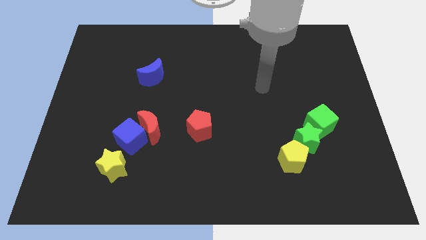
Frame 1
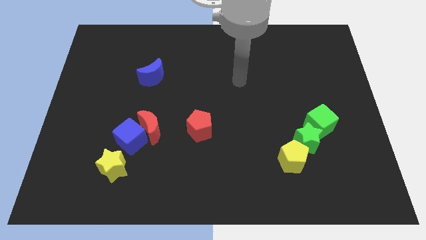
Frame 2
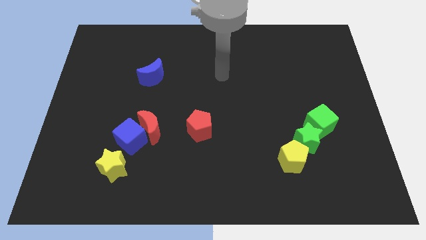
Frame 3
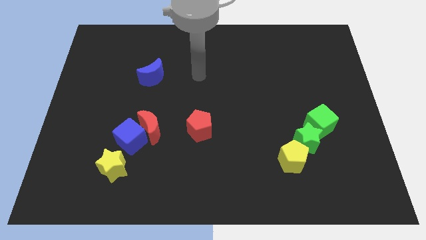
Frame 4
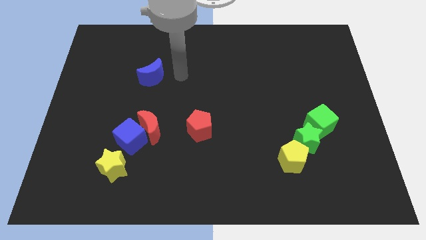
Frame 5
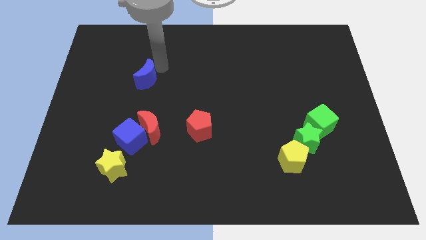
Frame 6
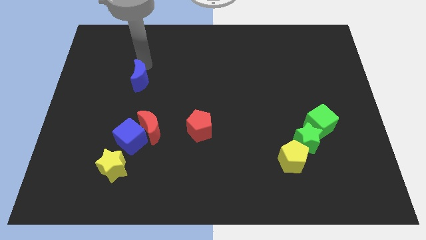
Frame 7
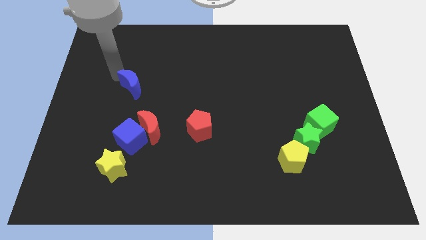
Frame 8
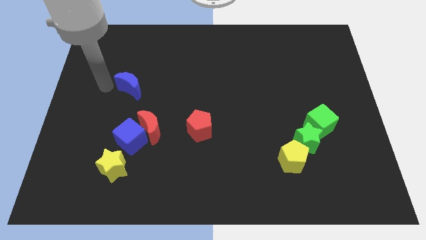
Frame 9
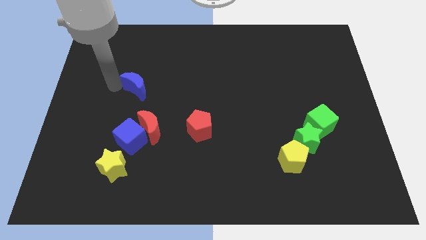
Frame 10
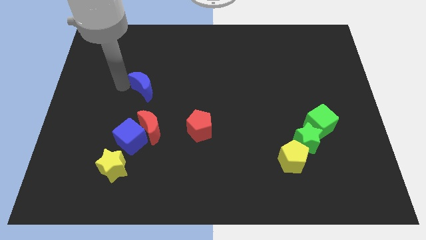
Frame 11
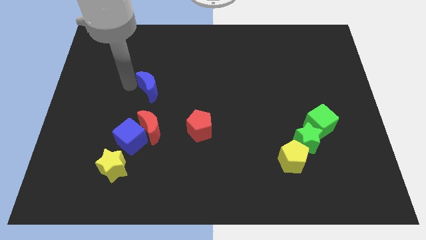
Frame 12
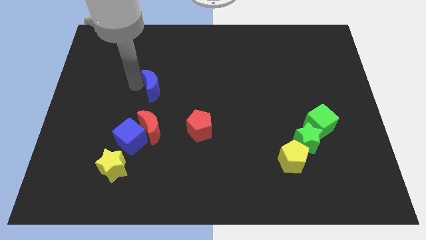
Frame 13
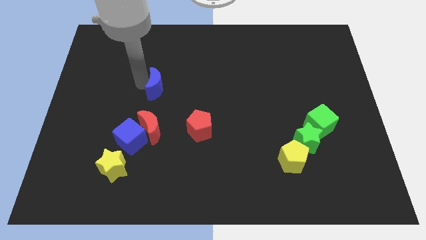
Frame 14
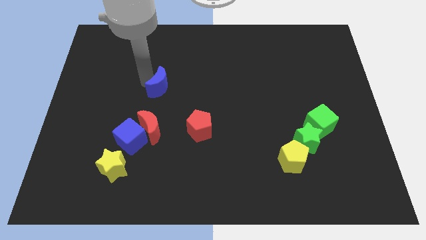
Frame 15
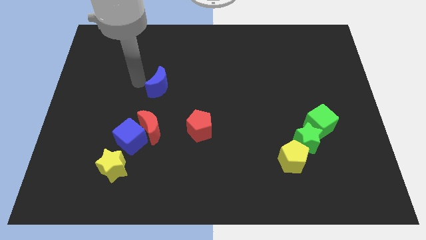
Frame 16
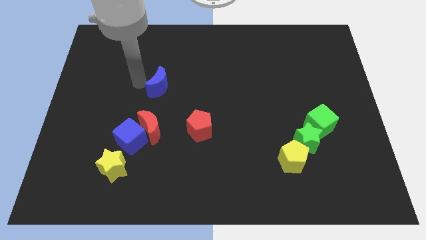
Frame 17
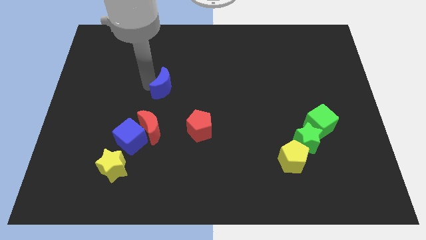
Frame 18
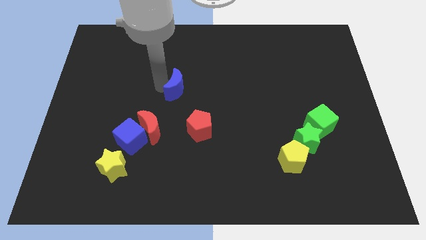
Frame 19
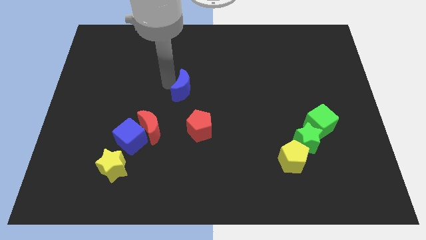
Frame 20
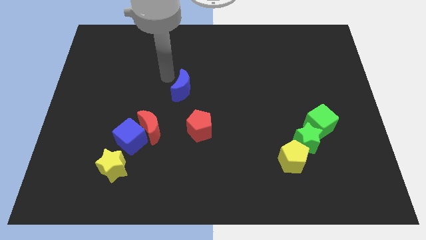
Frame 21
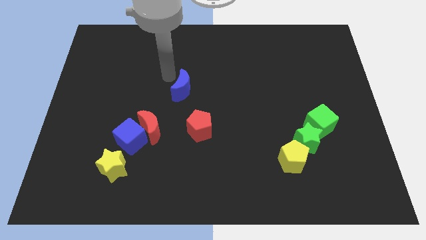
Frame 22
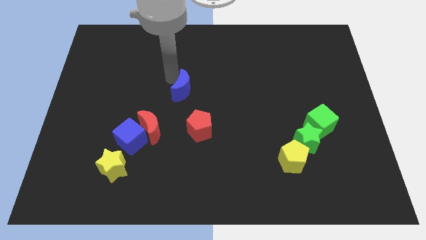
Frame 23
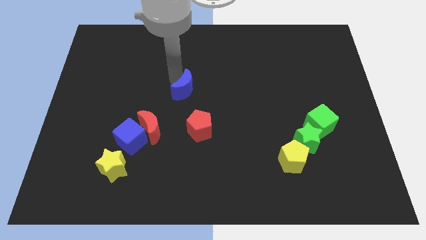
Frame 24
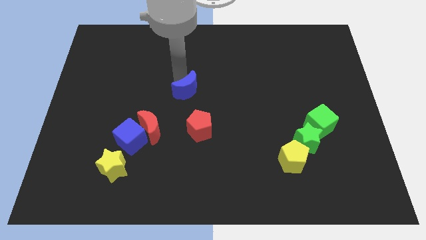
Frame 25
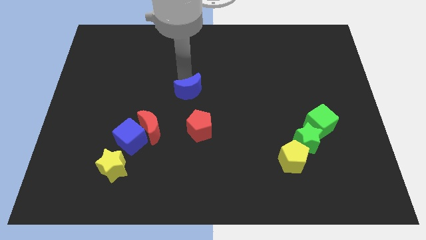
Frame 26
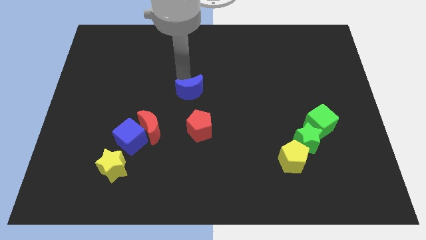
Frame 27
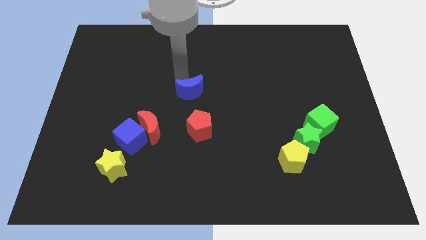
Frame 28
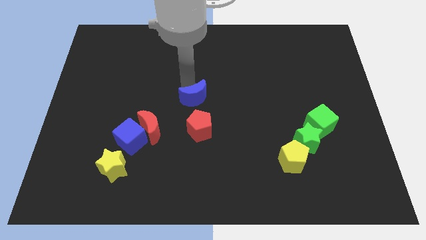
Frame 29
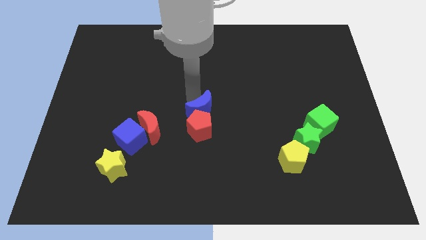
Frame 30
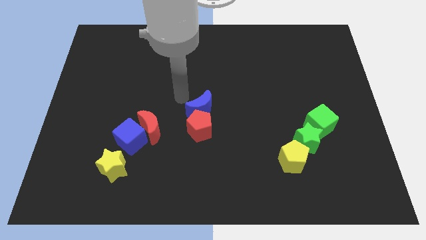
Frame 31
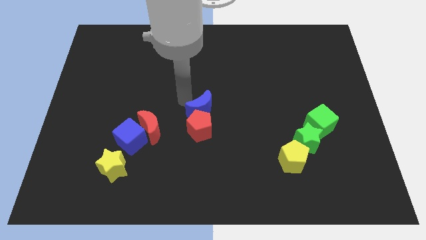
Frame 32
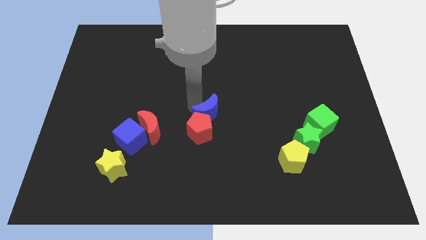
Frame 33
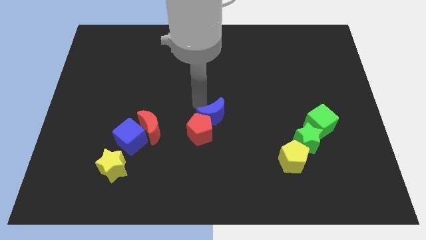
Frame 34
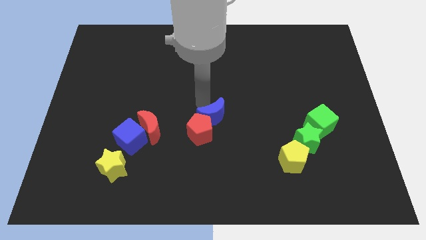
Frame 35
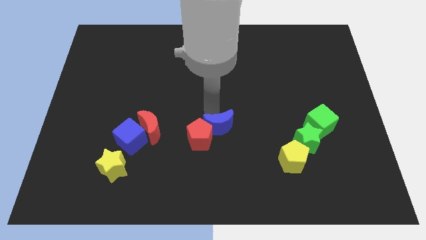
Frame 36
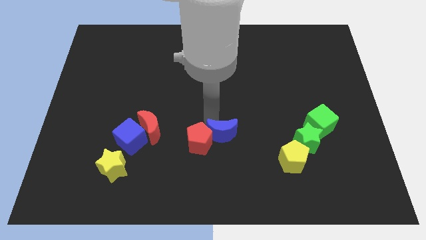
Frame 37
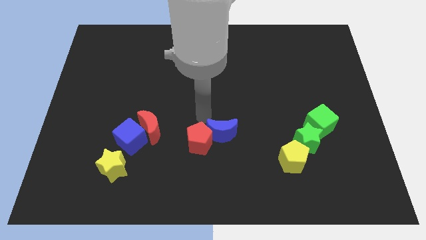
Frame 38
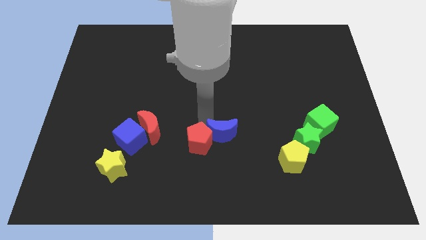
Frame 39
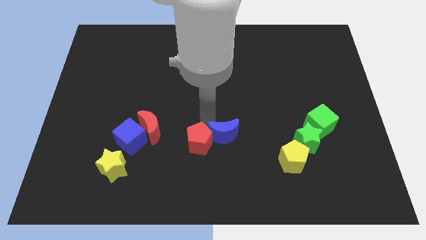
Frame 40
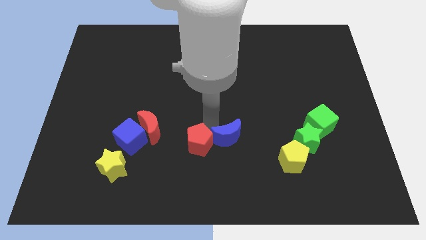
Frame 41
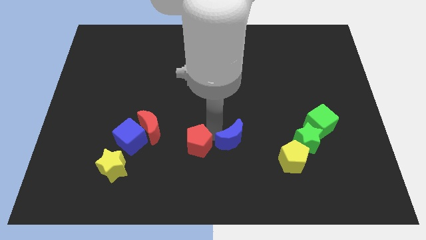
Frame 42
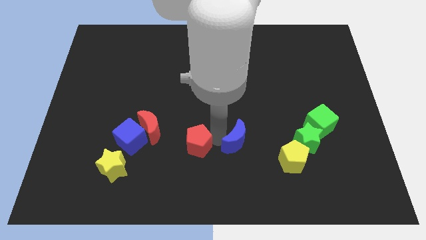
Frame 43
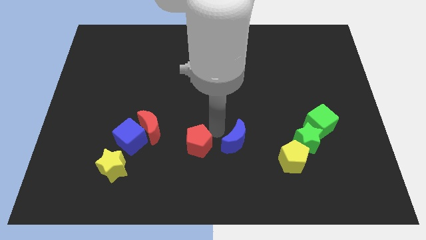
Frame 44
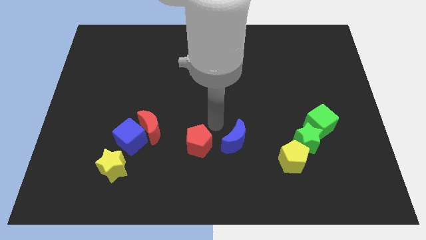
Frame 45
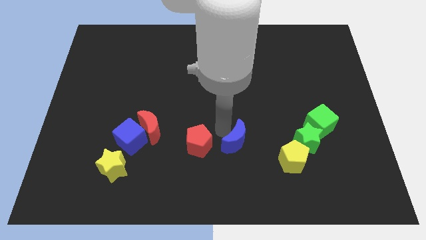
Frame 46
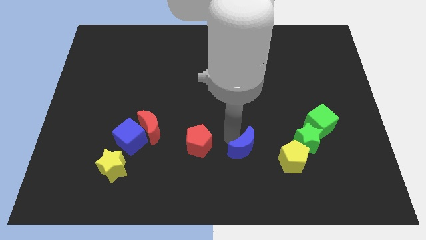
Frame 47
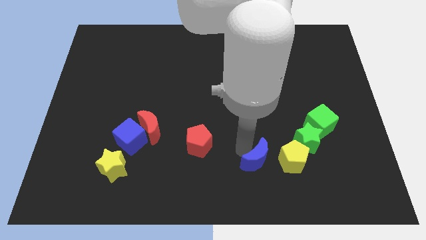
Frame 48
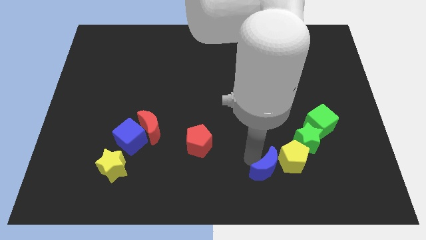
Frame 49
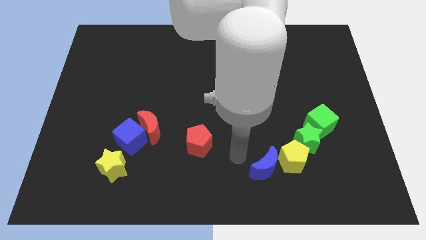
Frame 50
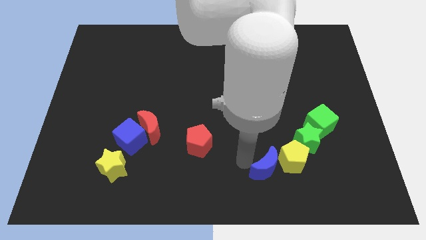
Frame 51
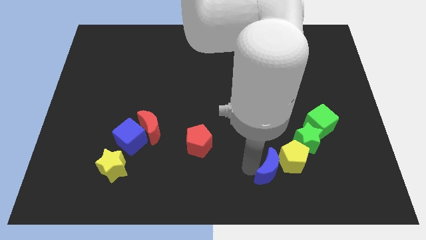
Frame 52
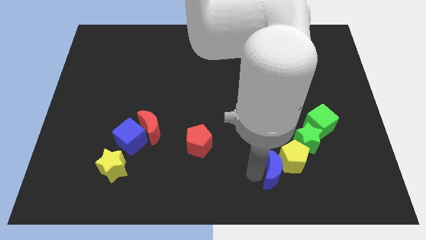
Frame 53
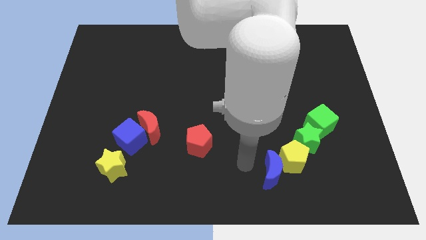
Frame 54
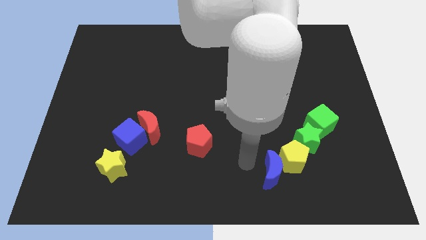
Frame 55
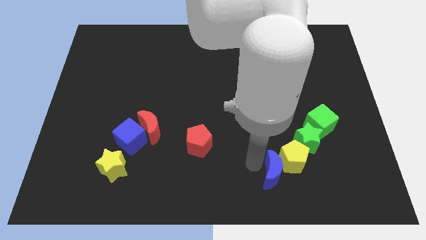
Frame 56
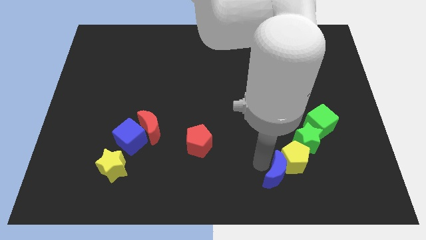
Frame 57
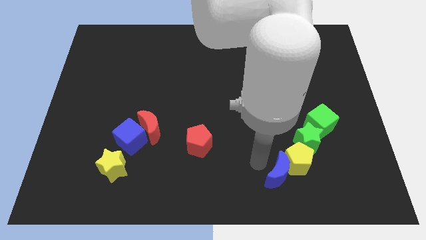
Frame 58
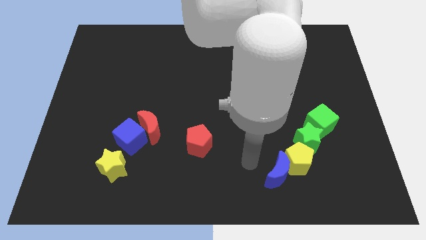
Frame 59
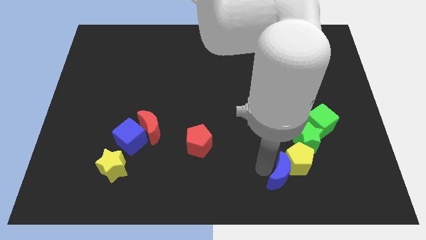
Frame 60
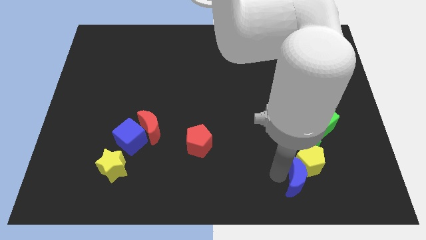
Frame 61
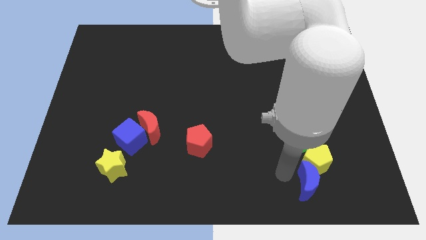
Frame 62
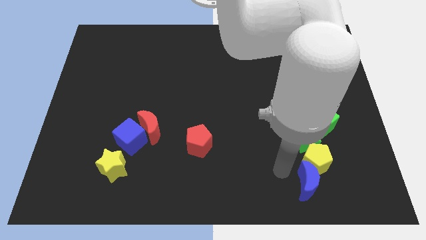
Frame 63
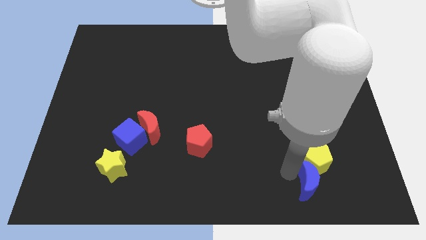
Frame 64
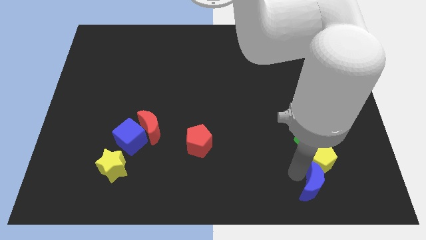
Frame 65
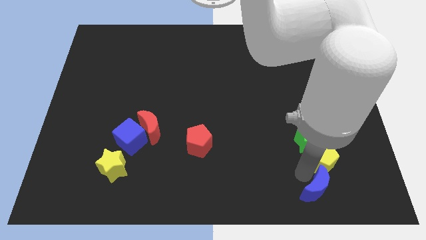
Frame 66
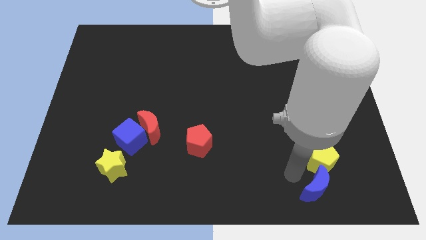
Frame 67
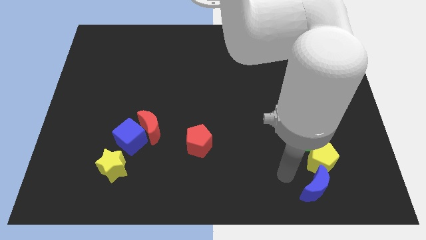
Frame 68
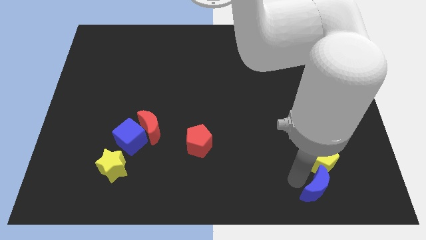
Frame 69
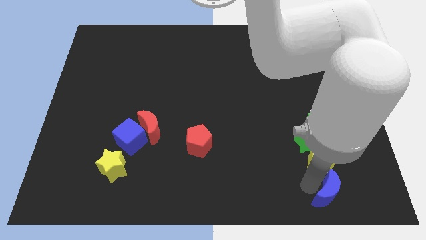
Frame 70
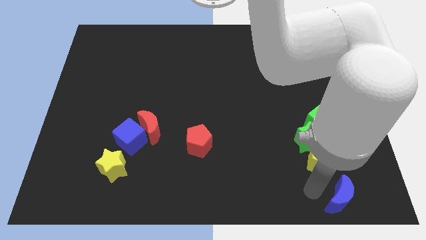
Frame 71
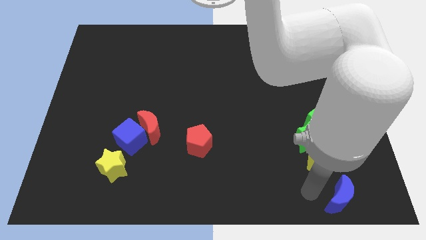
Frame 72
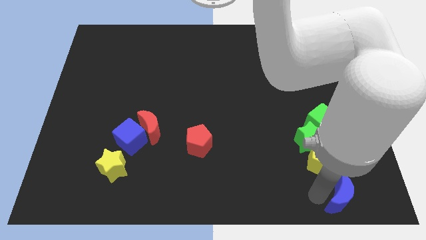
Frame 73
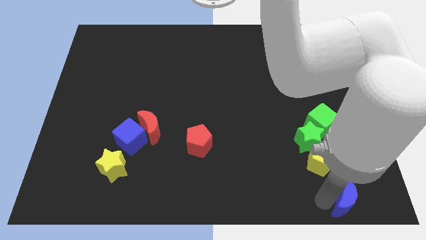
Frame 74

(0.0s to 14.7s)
put the blue moon to the bottom right of the board
